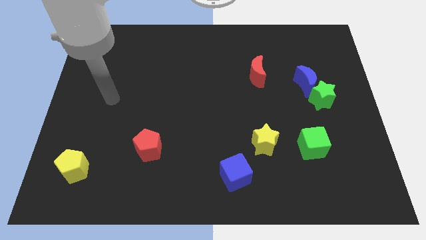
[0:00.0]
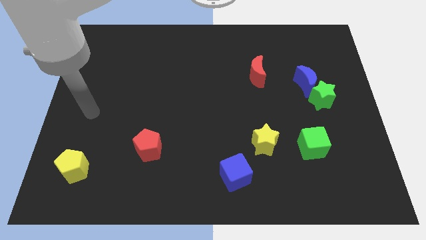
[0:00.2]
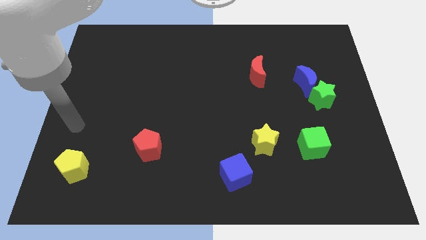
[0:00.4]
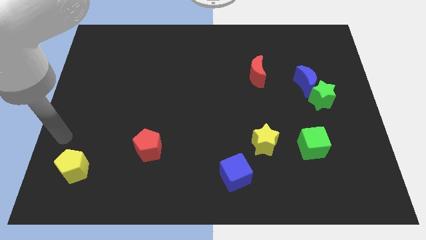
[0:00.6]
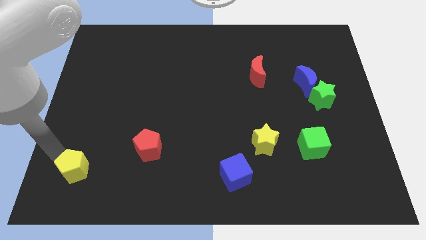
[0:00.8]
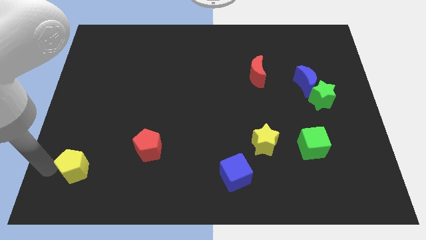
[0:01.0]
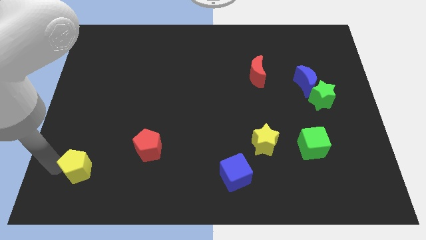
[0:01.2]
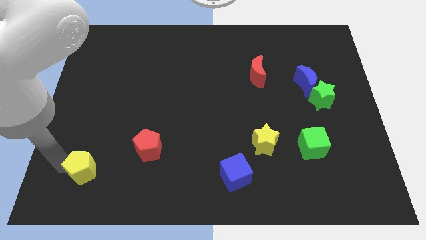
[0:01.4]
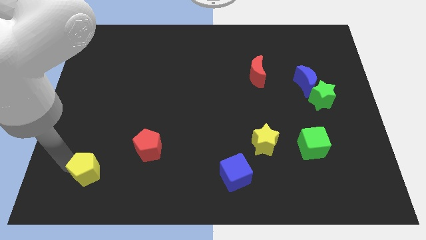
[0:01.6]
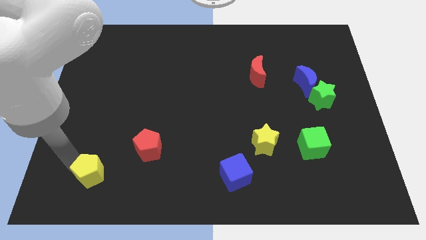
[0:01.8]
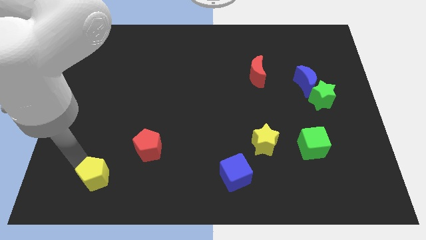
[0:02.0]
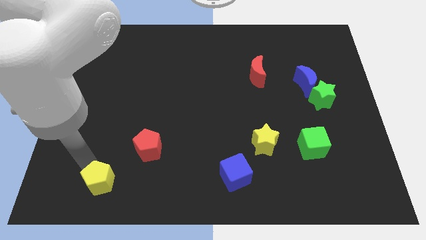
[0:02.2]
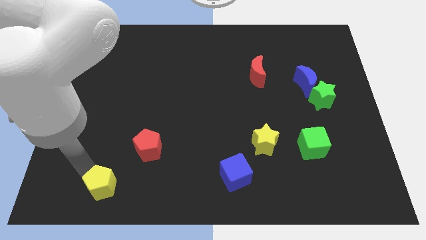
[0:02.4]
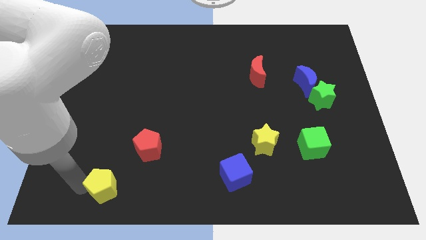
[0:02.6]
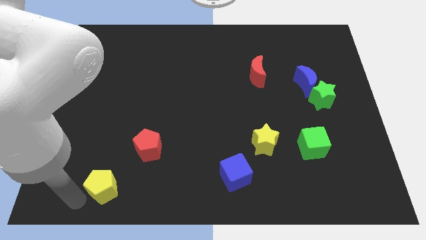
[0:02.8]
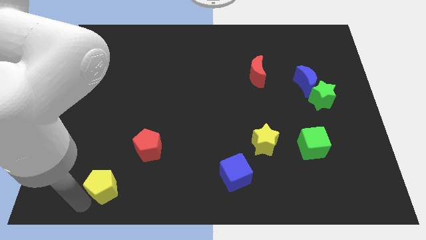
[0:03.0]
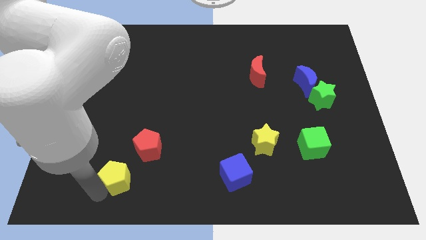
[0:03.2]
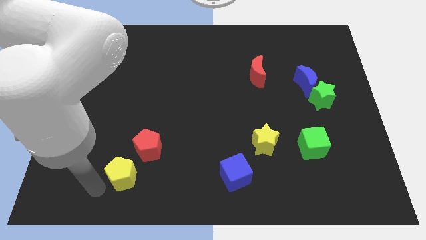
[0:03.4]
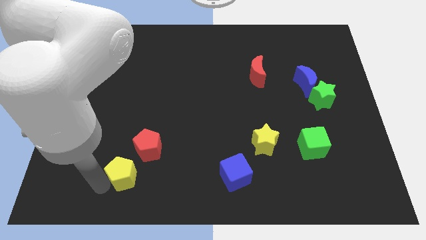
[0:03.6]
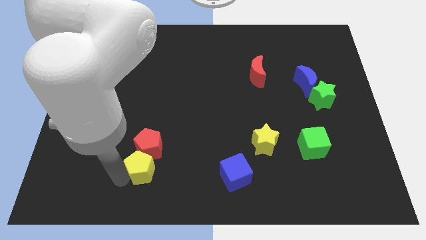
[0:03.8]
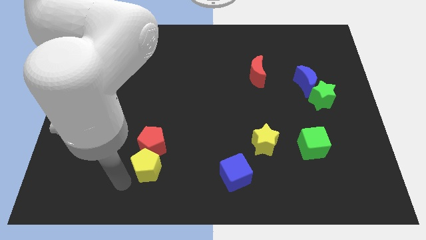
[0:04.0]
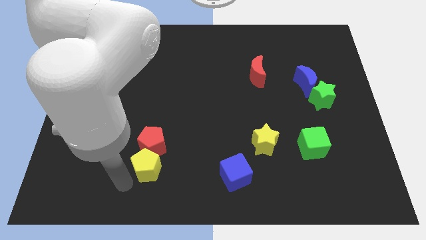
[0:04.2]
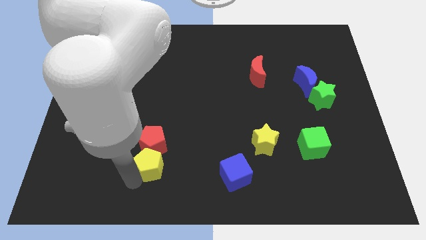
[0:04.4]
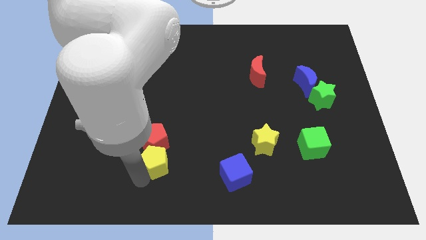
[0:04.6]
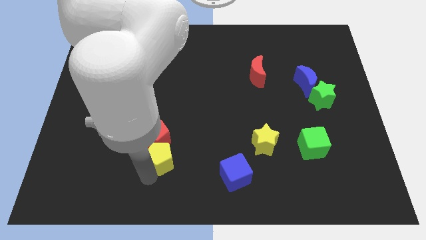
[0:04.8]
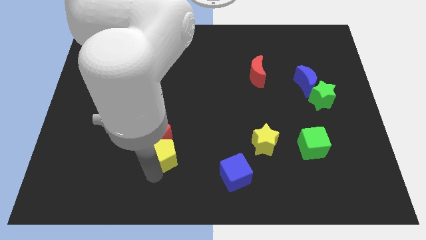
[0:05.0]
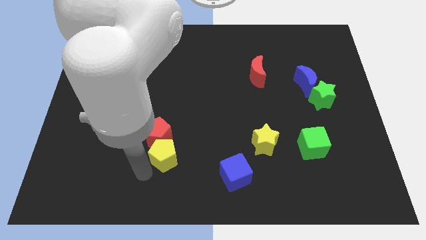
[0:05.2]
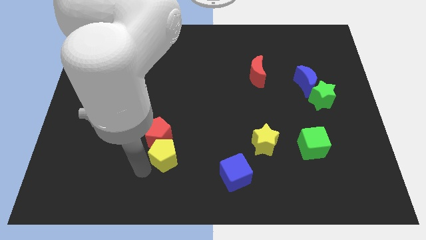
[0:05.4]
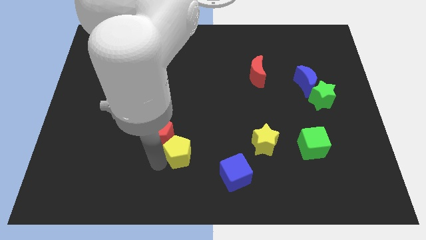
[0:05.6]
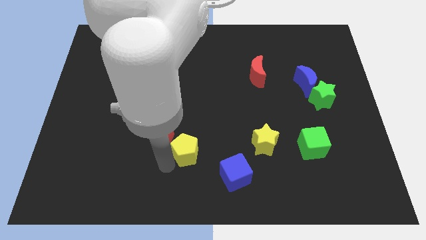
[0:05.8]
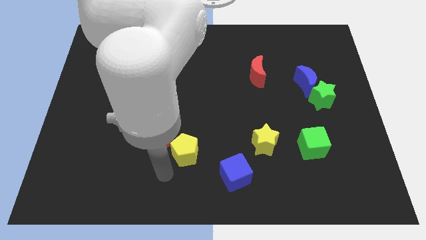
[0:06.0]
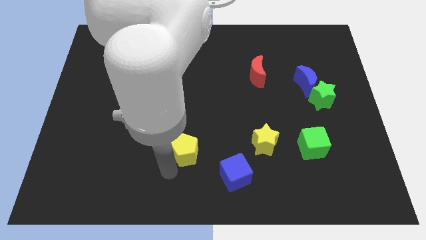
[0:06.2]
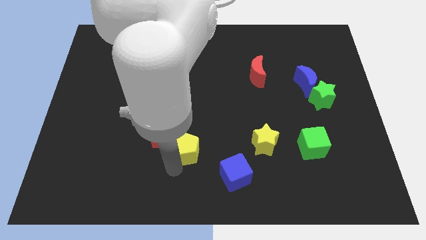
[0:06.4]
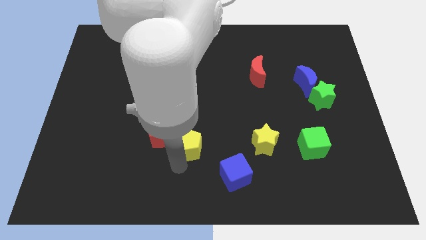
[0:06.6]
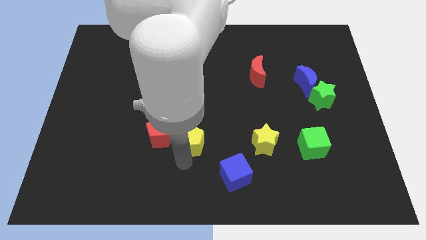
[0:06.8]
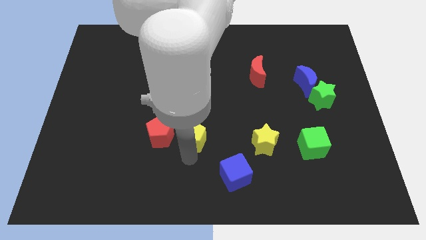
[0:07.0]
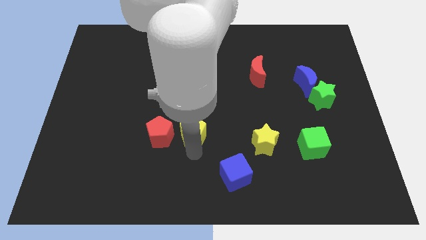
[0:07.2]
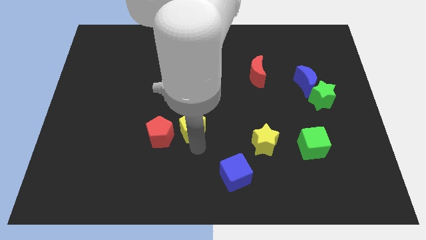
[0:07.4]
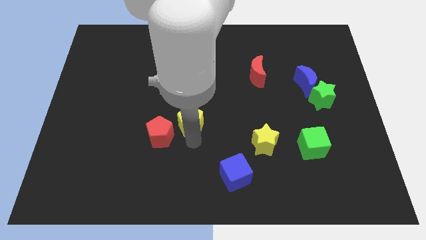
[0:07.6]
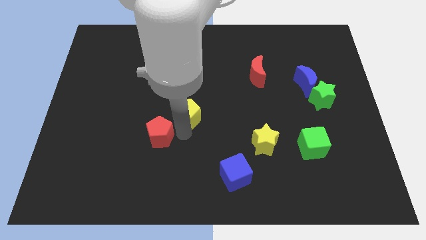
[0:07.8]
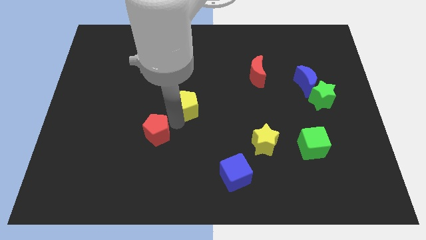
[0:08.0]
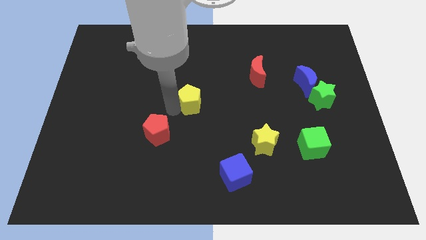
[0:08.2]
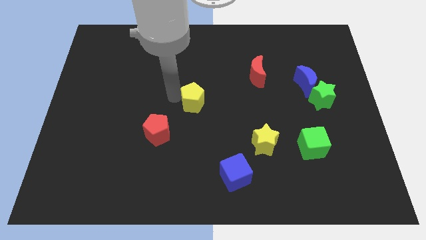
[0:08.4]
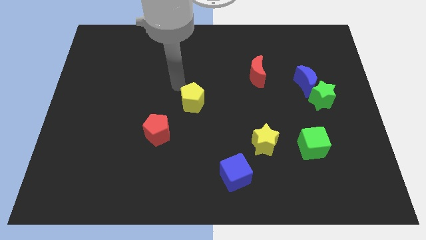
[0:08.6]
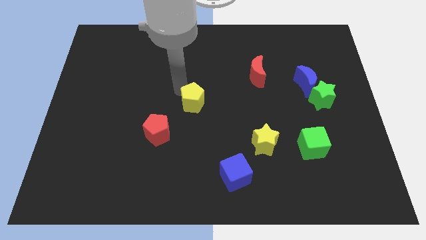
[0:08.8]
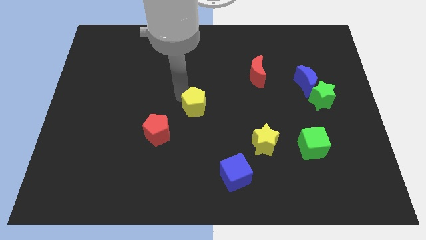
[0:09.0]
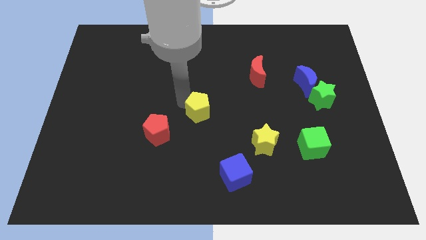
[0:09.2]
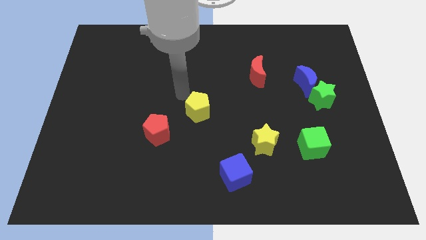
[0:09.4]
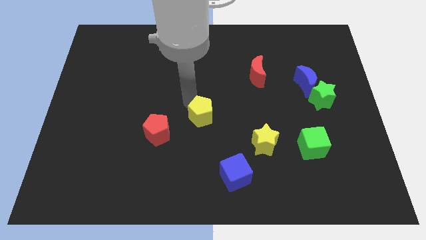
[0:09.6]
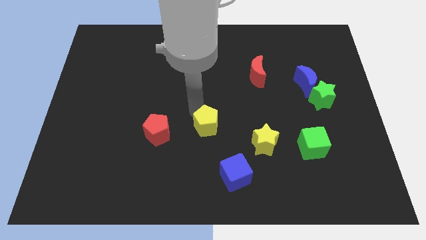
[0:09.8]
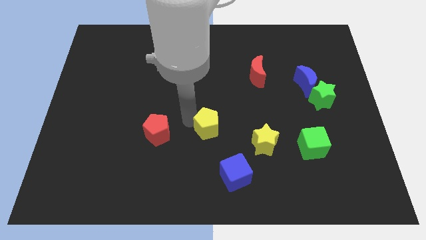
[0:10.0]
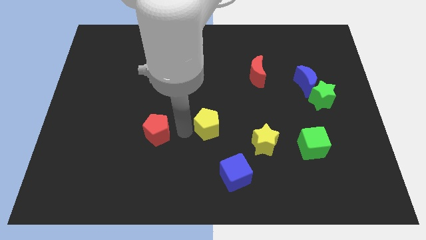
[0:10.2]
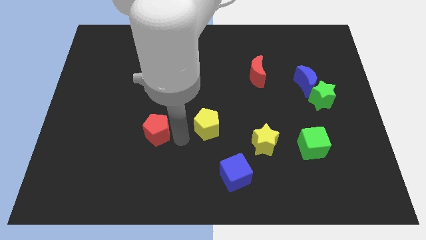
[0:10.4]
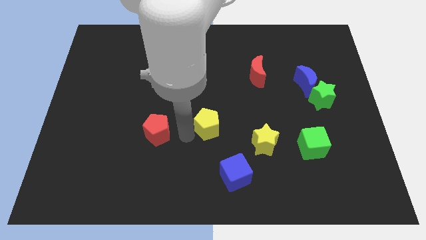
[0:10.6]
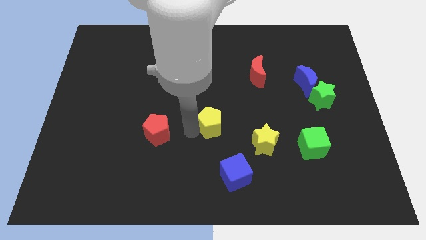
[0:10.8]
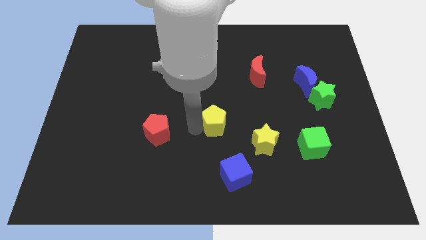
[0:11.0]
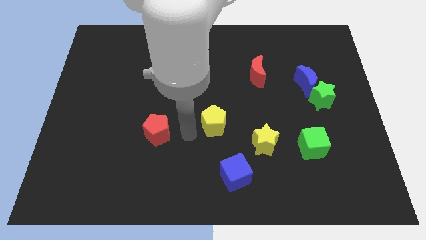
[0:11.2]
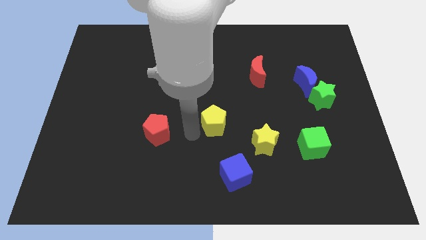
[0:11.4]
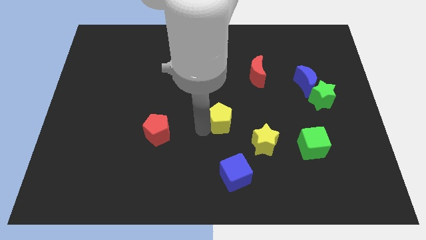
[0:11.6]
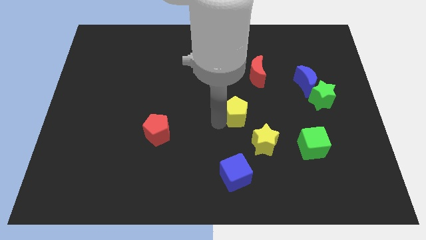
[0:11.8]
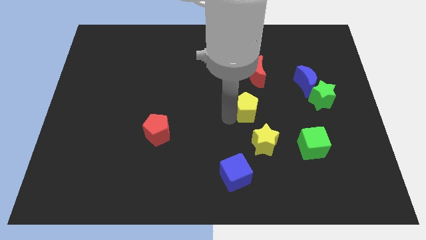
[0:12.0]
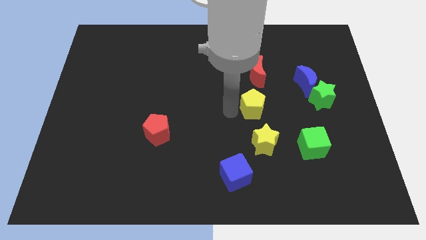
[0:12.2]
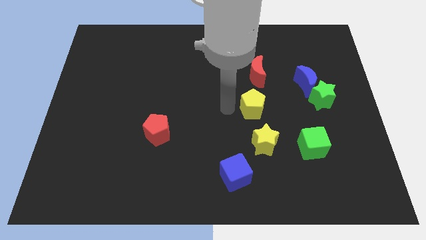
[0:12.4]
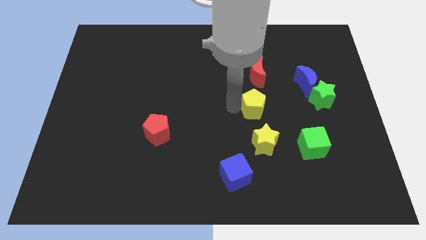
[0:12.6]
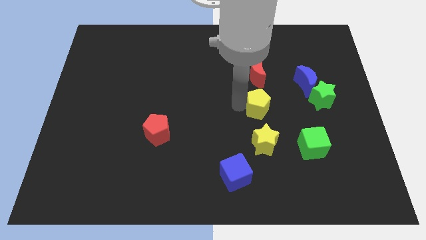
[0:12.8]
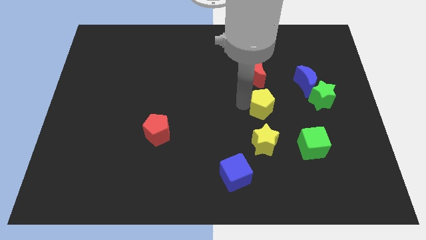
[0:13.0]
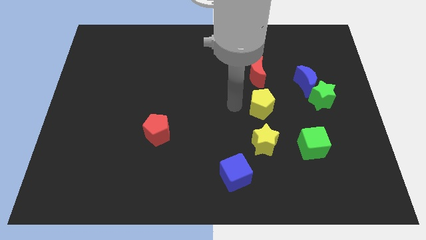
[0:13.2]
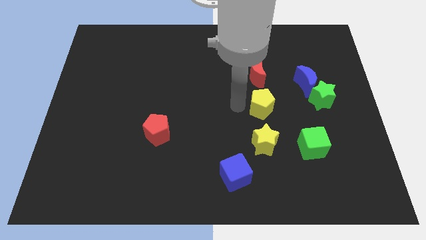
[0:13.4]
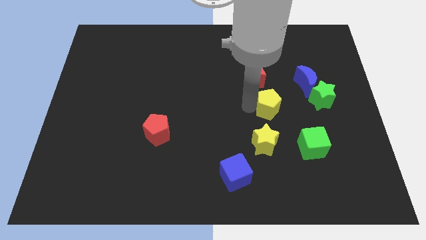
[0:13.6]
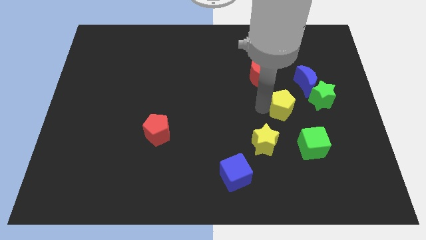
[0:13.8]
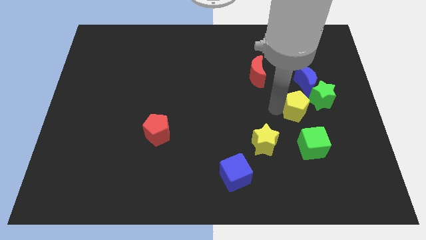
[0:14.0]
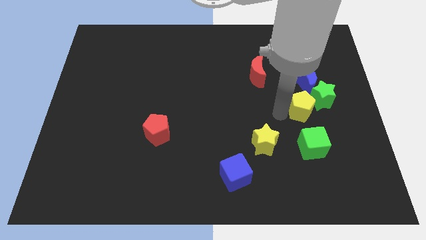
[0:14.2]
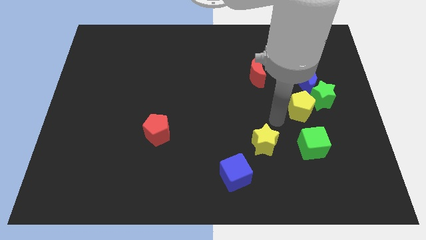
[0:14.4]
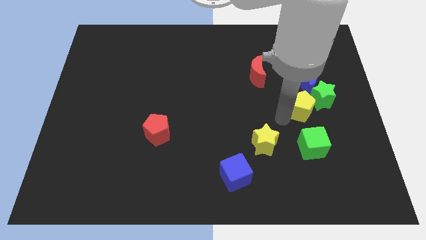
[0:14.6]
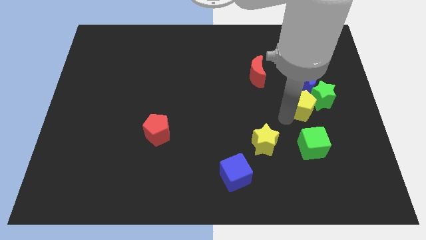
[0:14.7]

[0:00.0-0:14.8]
put the yellow pentagon next to the green star

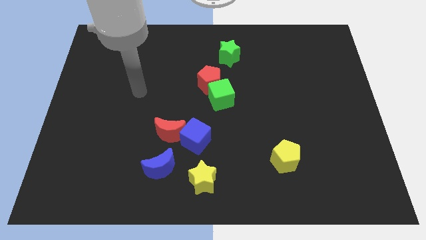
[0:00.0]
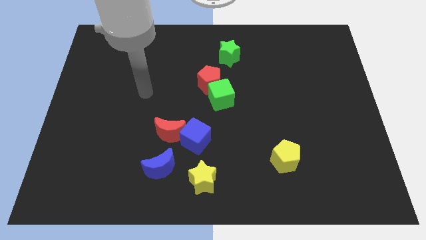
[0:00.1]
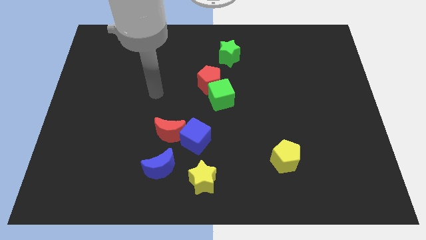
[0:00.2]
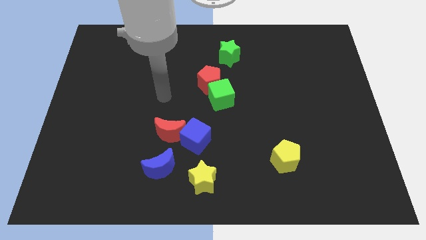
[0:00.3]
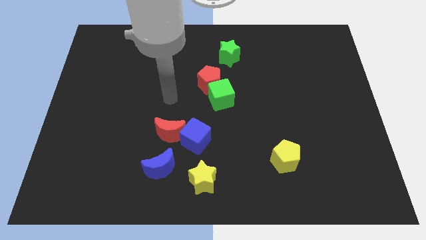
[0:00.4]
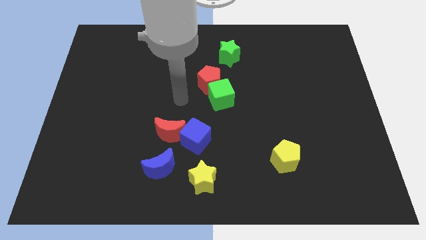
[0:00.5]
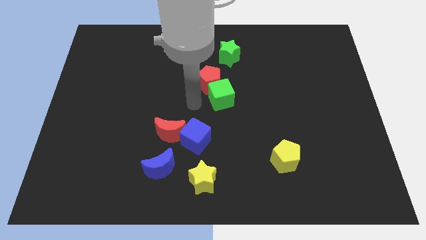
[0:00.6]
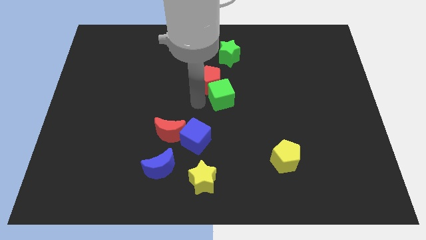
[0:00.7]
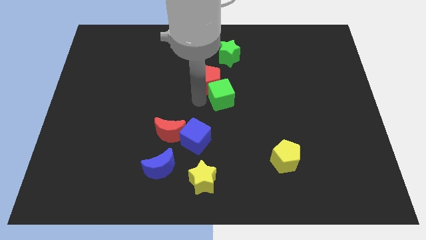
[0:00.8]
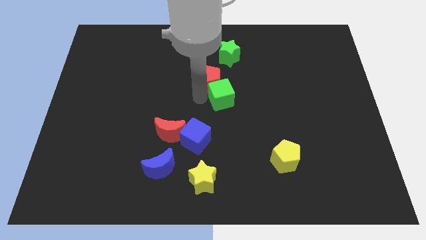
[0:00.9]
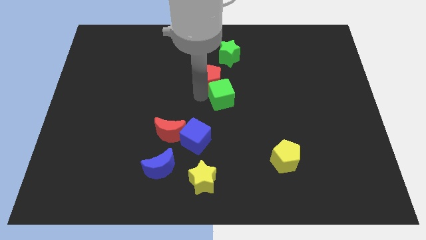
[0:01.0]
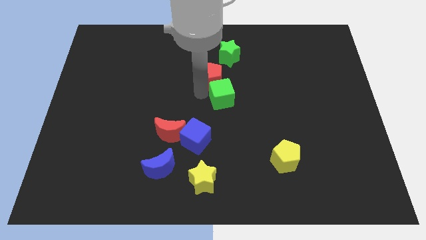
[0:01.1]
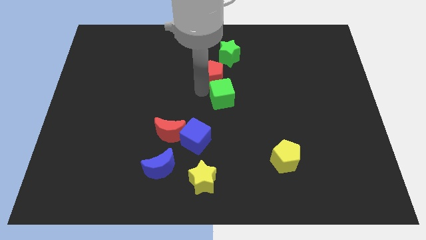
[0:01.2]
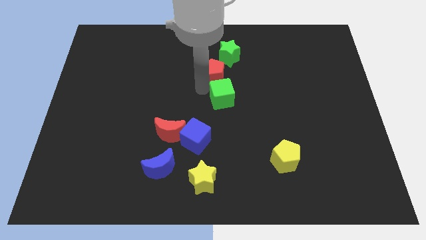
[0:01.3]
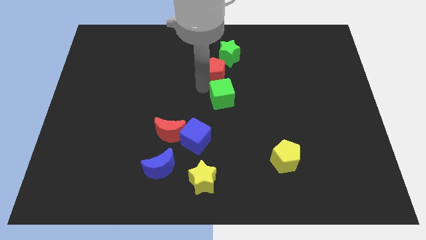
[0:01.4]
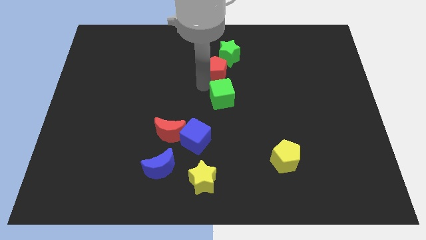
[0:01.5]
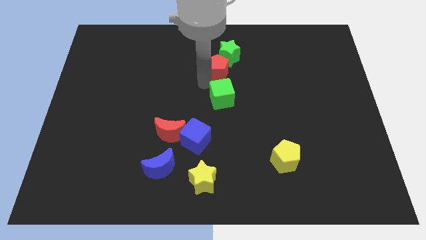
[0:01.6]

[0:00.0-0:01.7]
slide the red pentagon close to the green star
